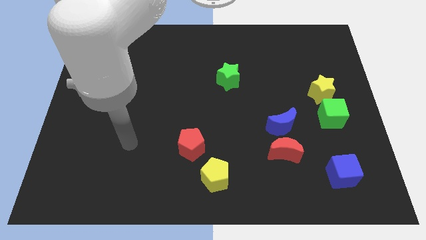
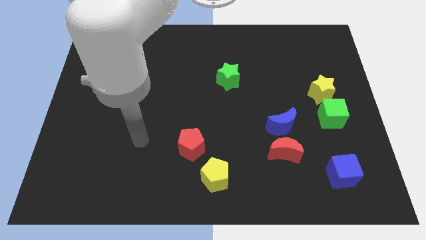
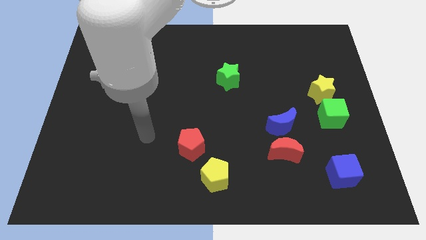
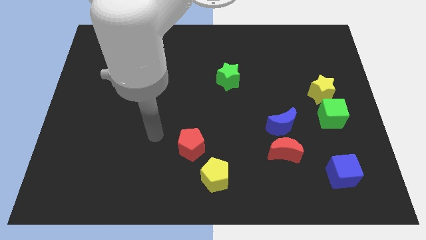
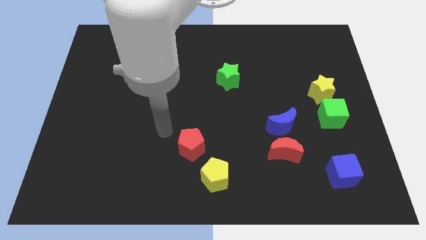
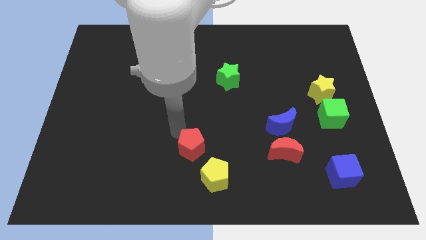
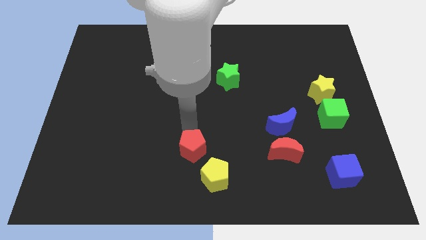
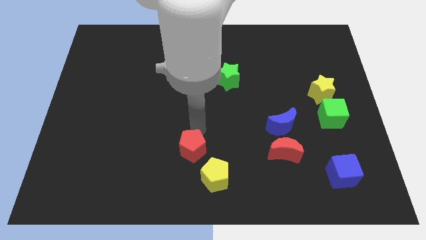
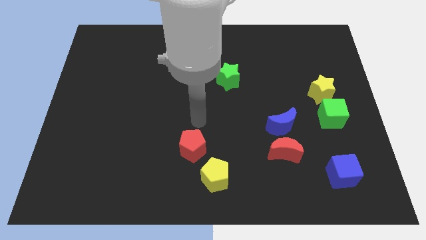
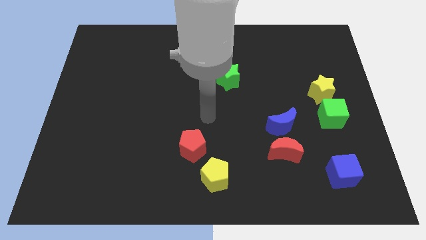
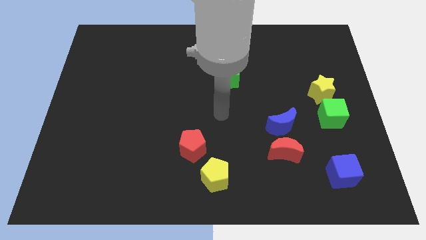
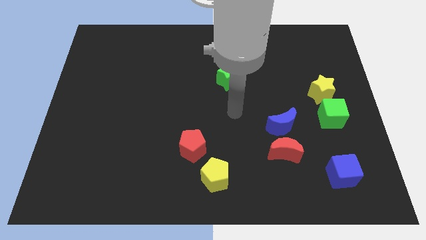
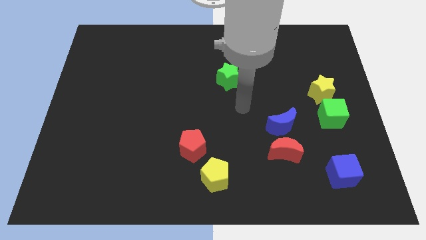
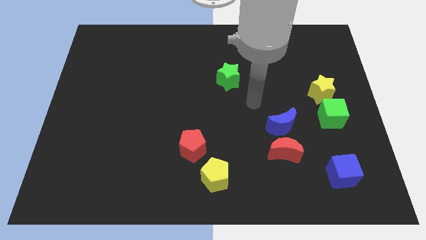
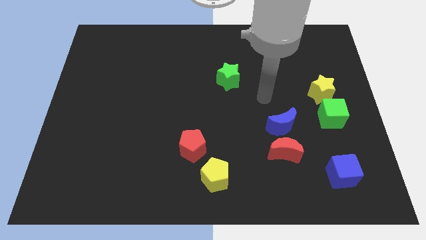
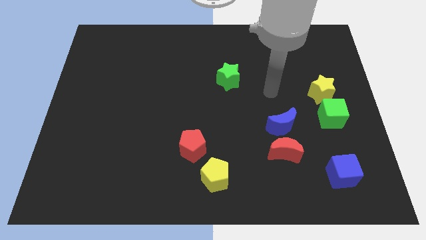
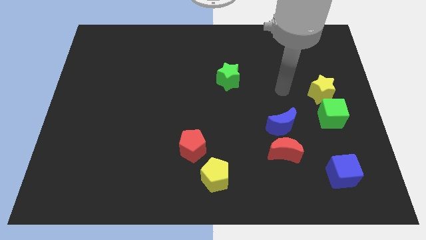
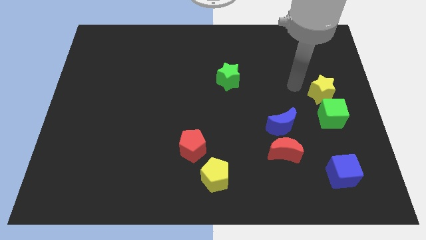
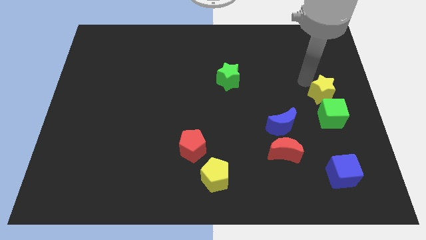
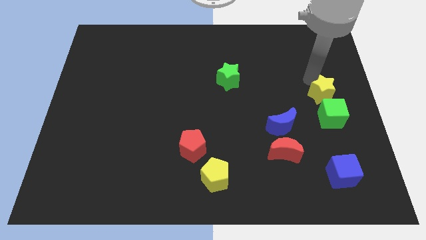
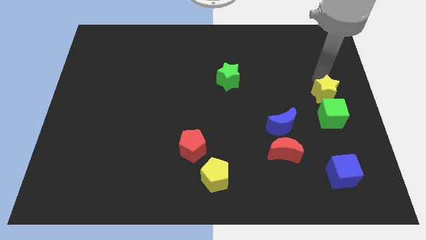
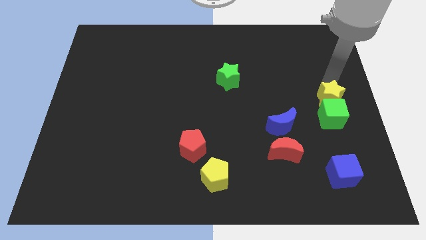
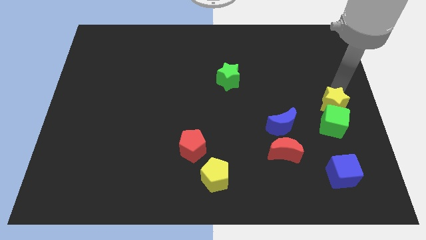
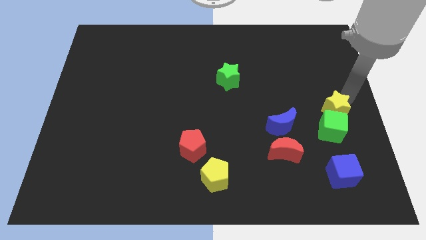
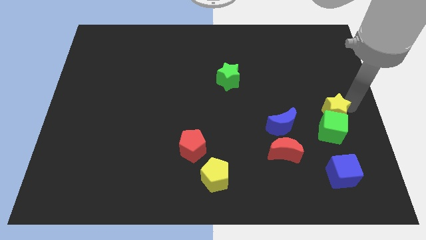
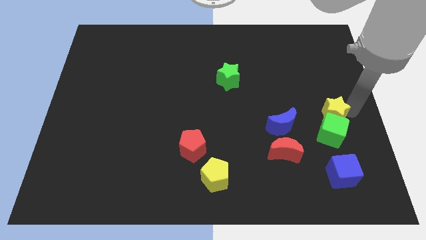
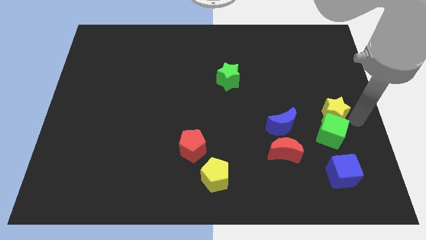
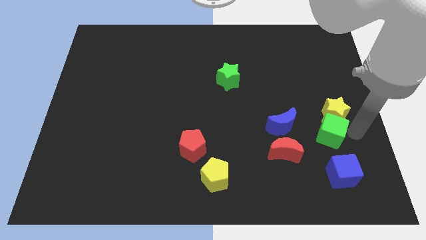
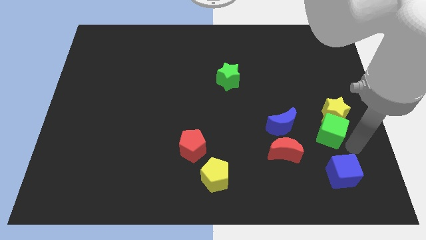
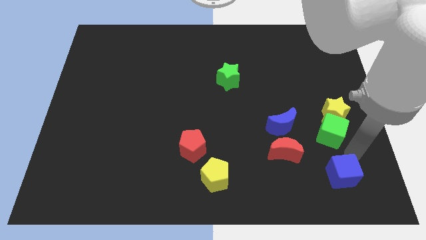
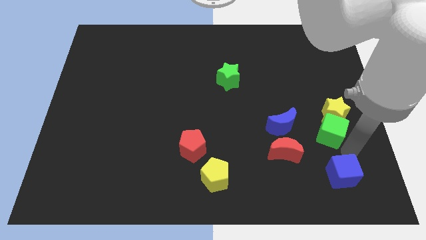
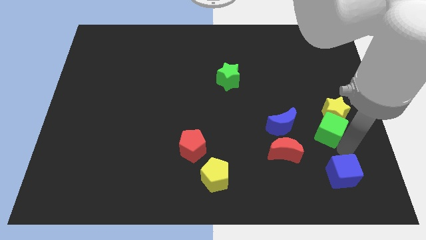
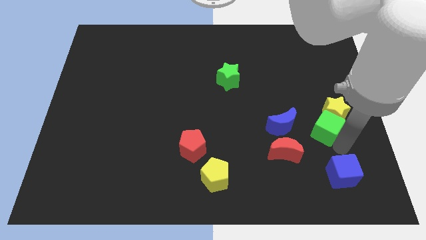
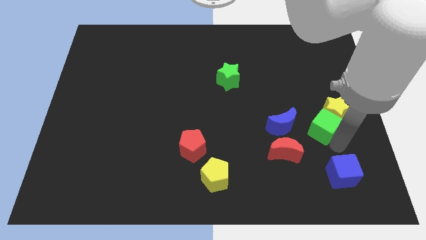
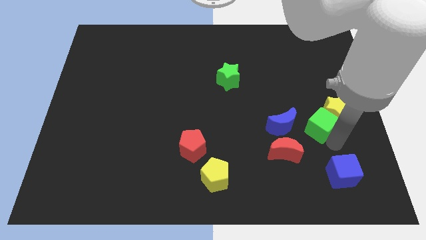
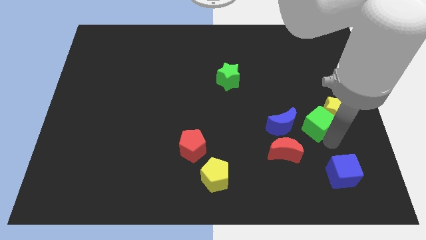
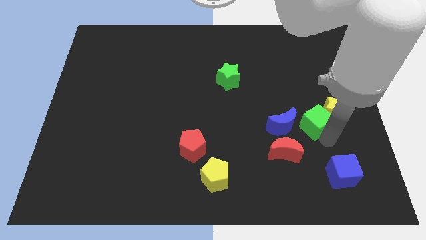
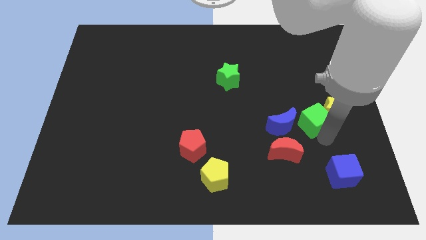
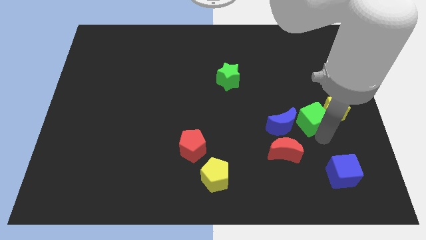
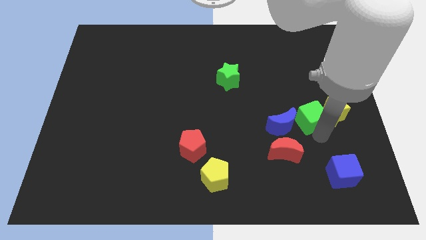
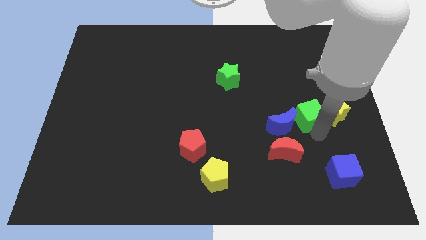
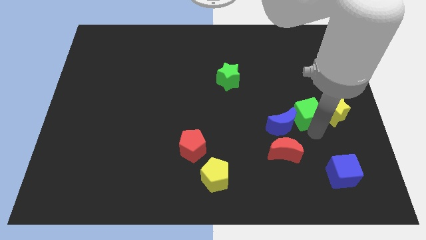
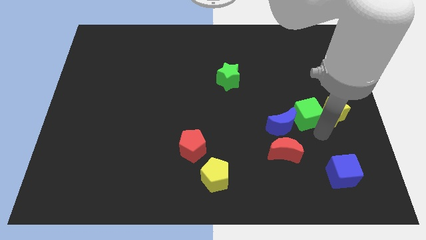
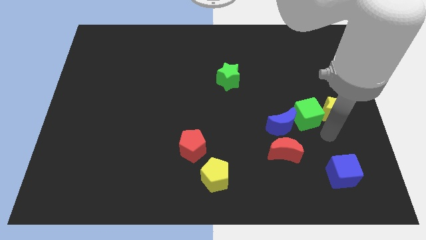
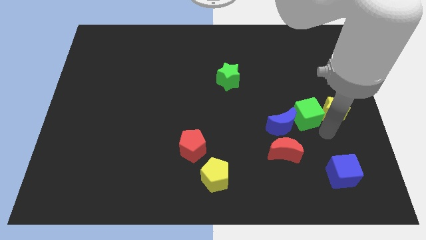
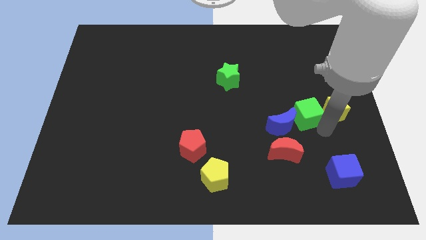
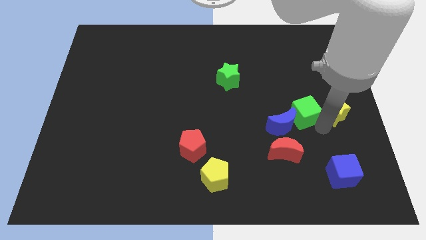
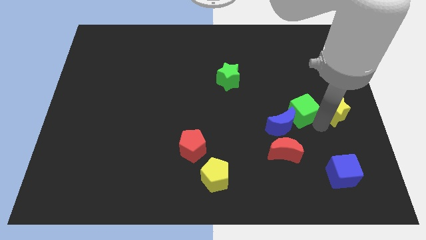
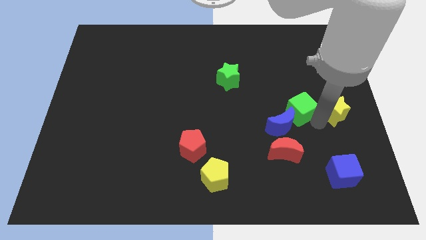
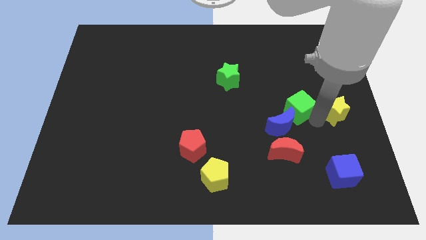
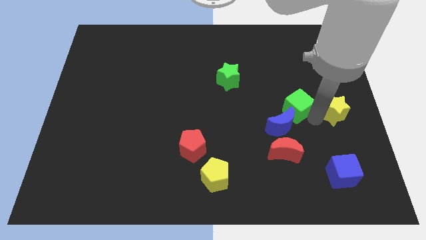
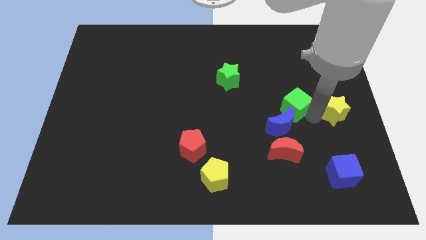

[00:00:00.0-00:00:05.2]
slightly push the green cube up and to the left

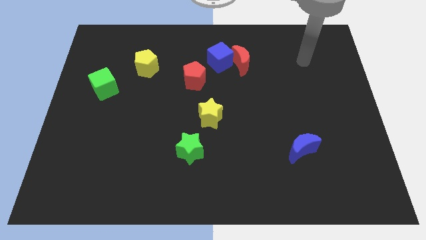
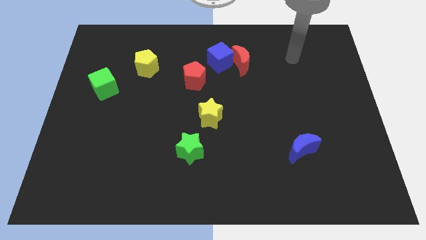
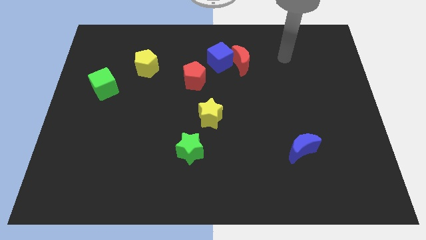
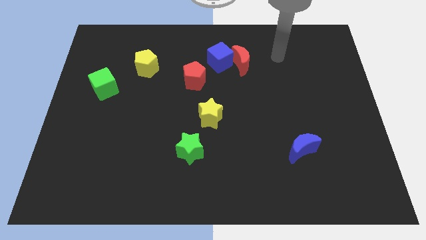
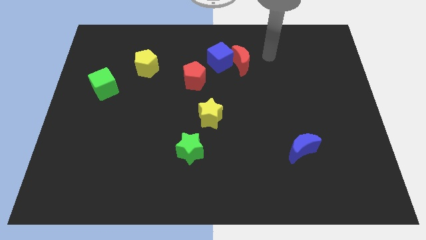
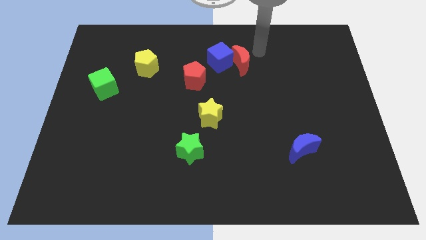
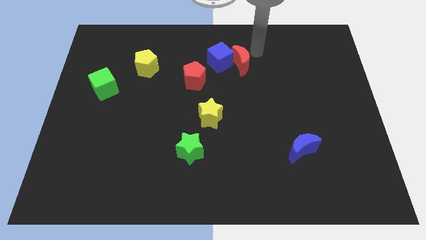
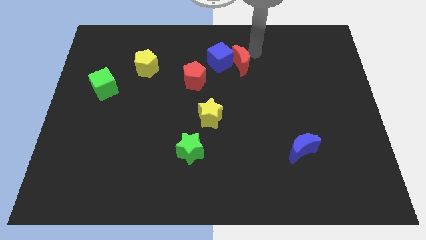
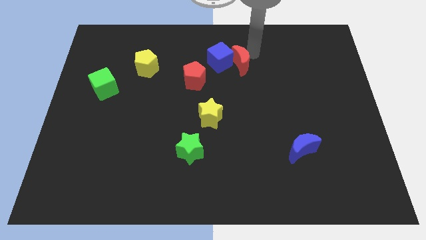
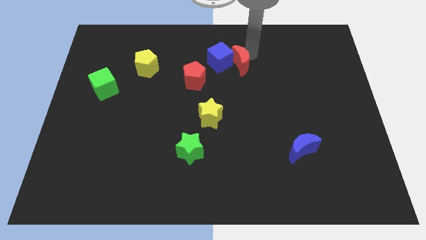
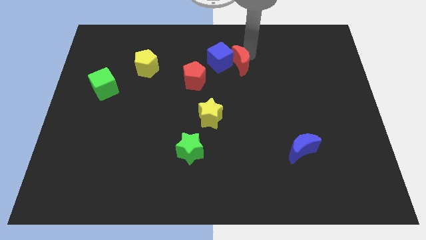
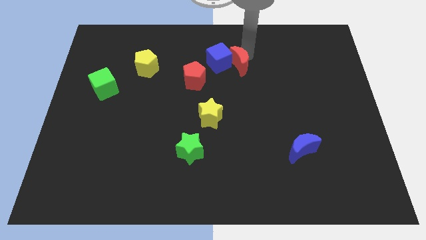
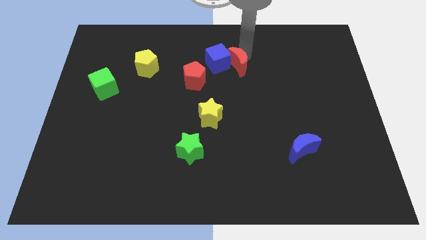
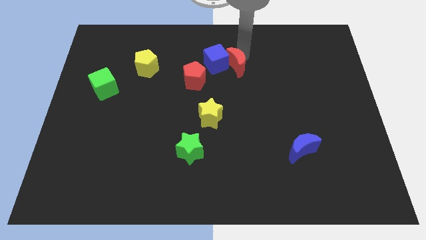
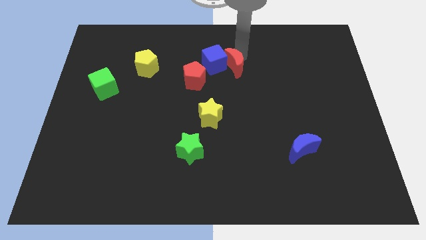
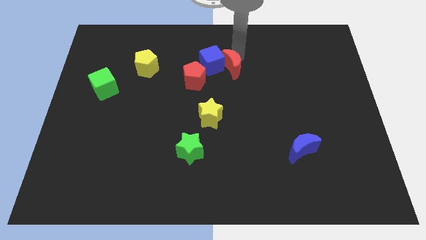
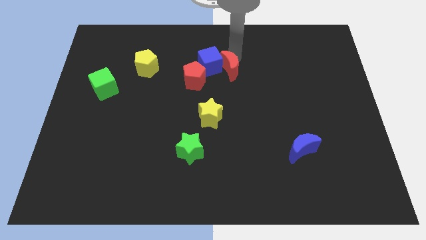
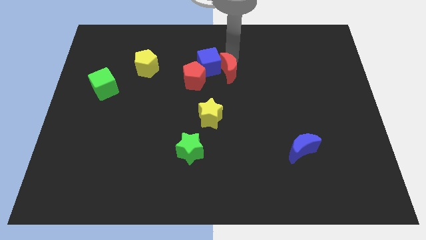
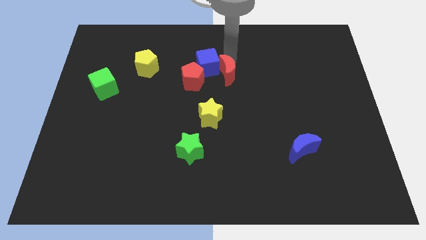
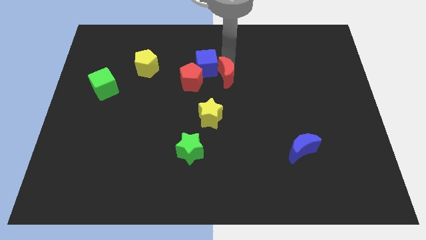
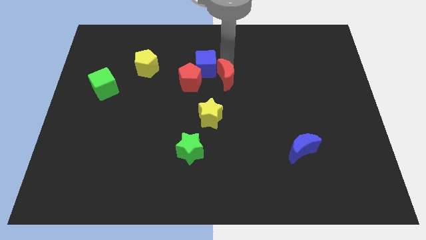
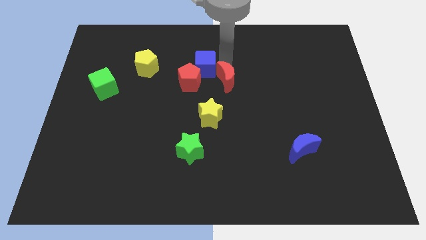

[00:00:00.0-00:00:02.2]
push the red moon down and then left somewhat

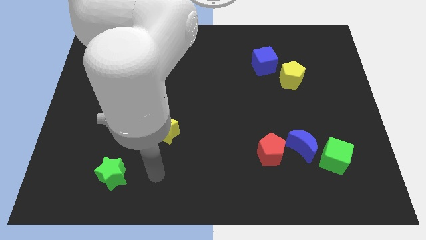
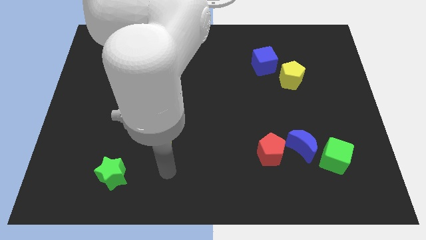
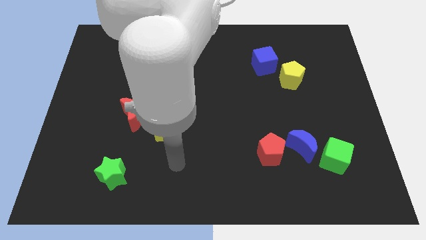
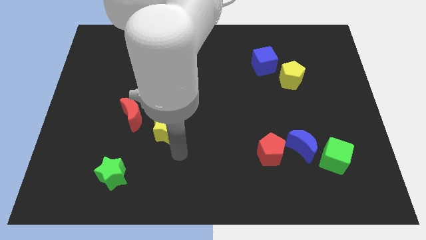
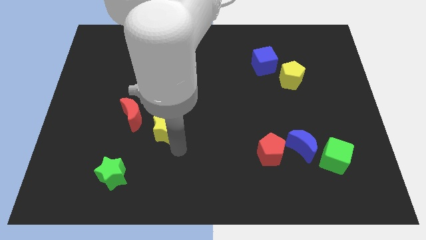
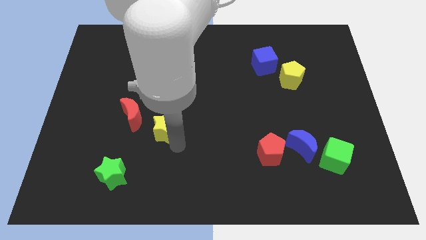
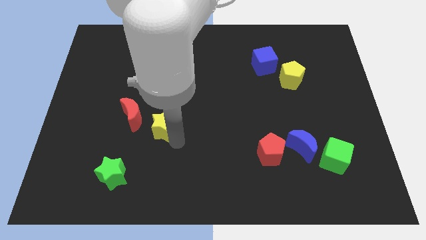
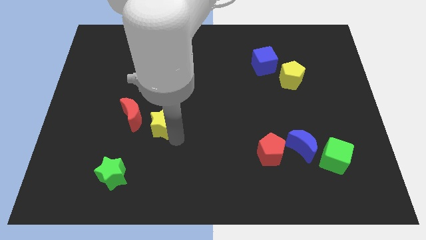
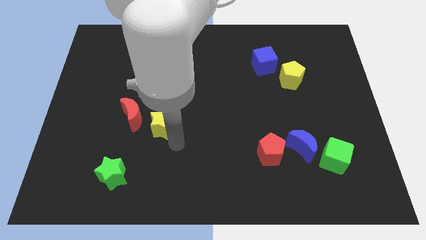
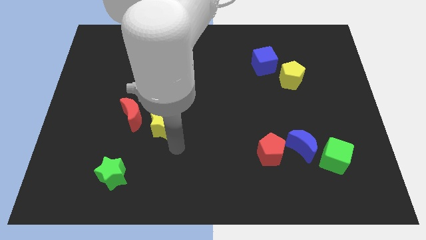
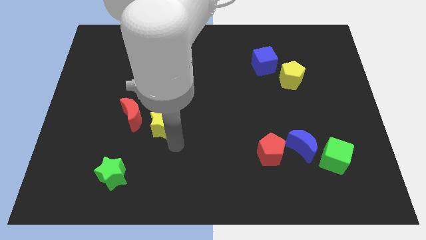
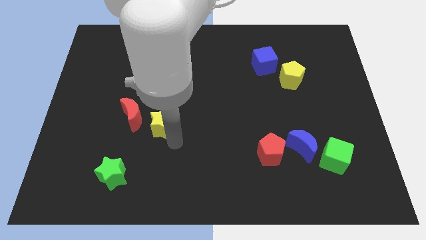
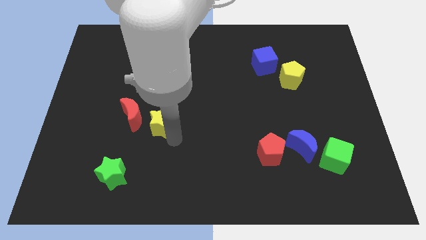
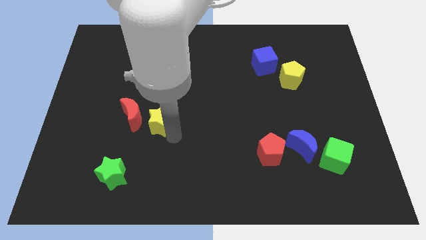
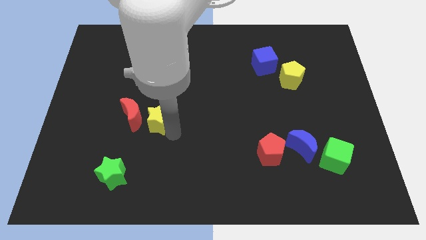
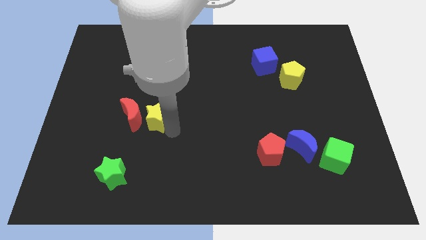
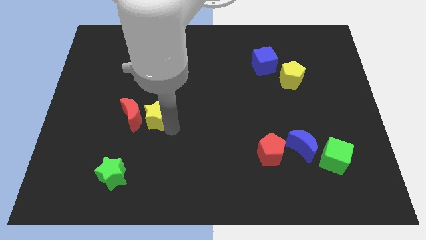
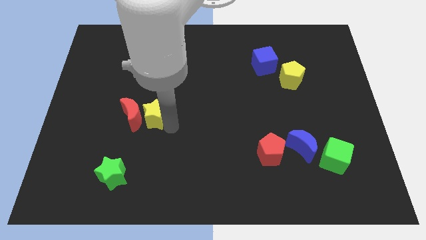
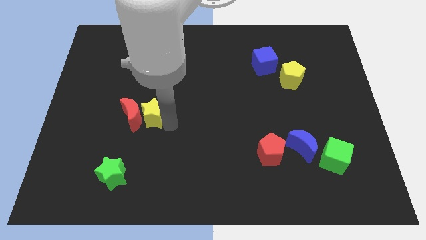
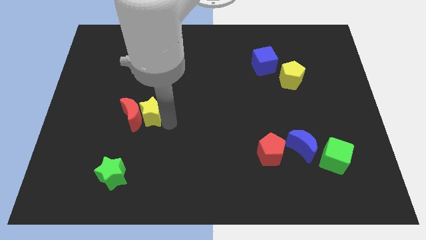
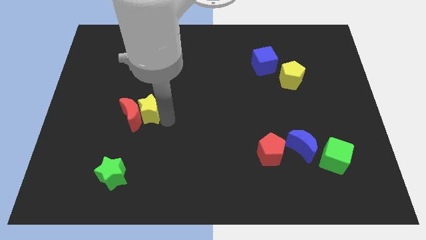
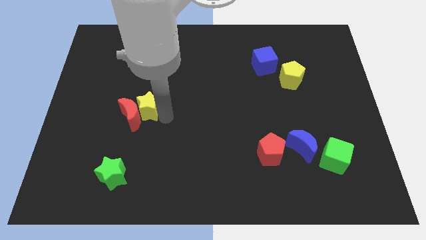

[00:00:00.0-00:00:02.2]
slide the yellow star up and left a bit
